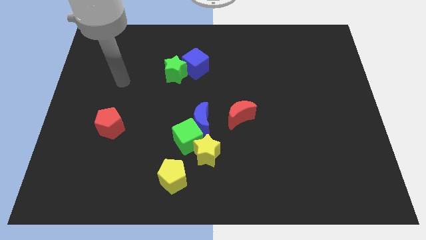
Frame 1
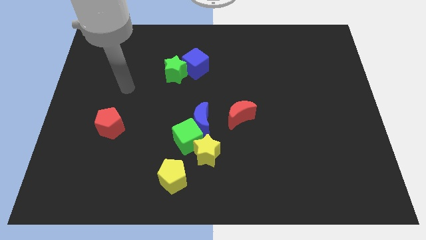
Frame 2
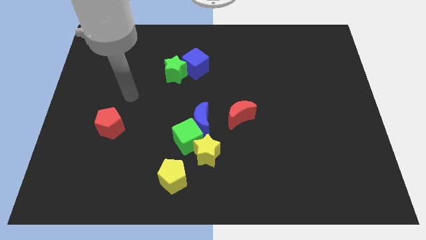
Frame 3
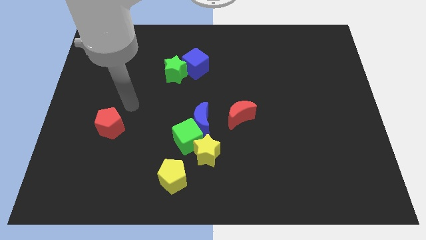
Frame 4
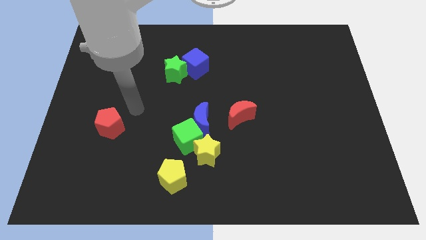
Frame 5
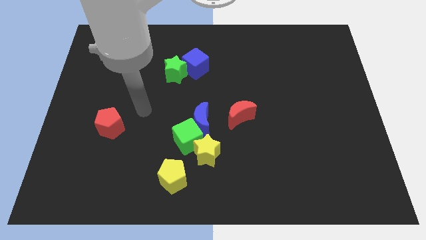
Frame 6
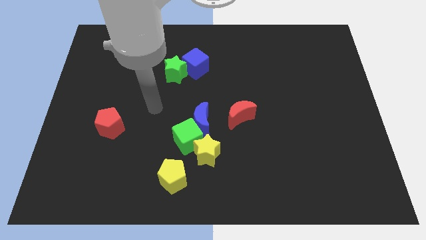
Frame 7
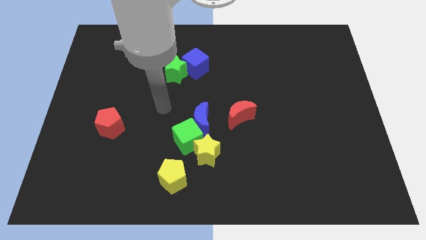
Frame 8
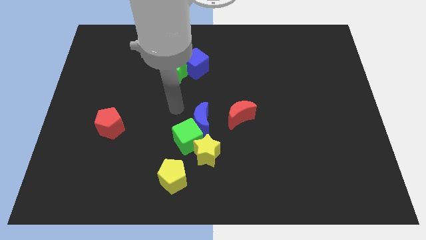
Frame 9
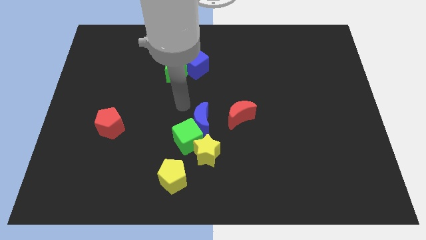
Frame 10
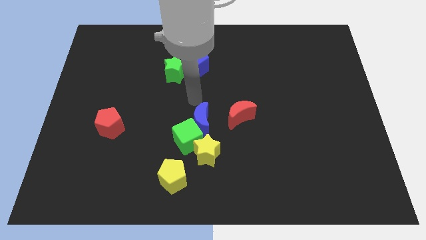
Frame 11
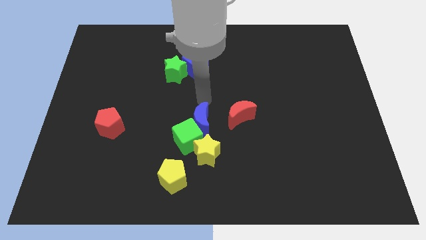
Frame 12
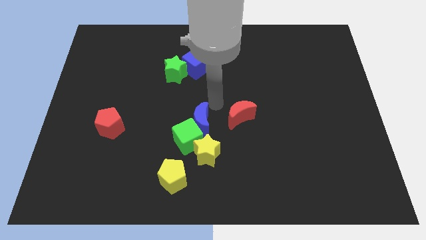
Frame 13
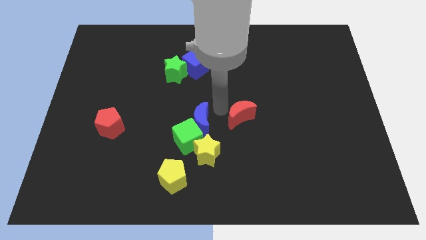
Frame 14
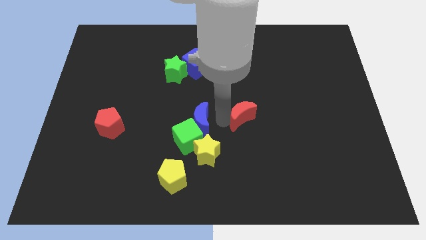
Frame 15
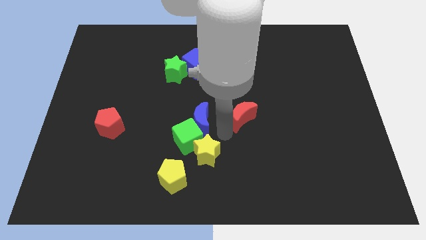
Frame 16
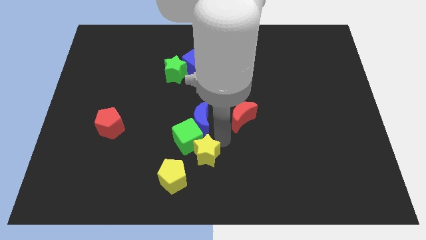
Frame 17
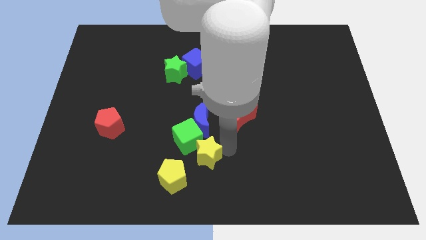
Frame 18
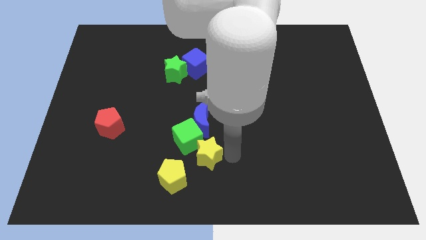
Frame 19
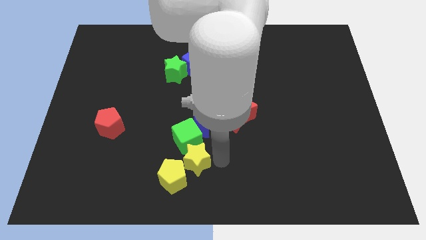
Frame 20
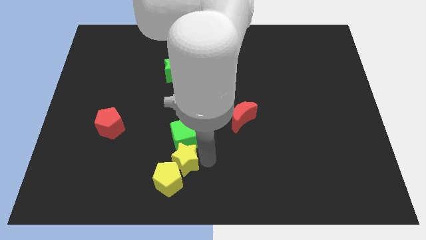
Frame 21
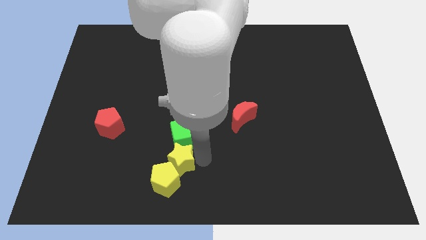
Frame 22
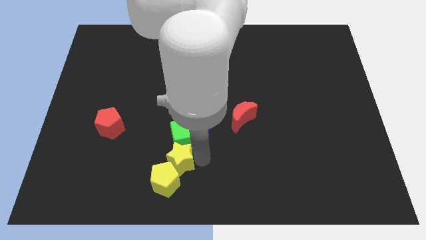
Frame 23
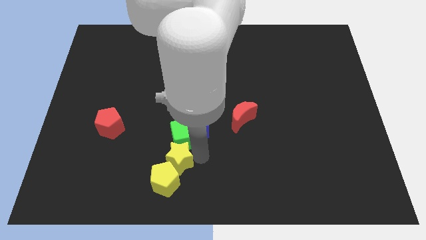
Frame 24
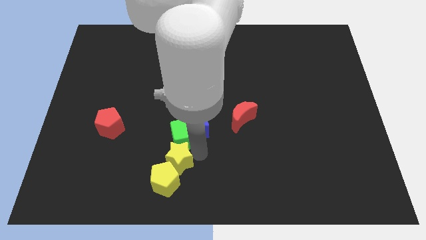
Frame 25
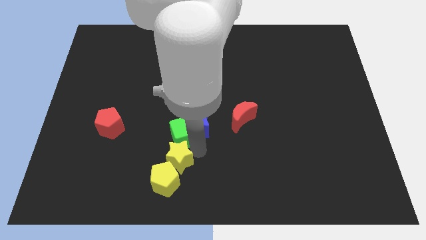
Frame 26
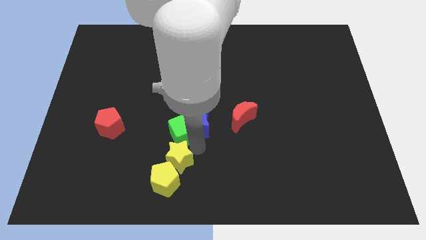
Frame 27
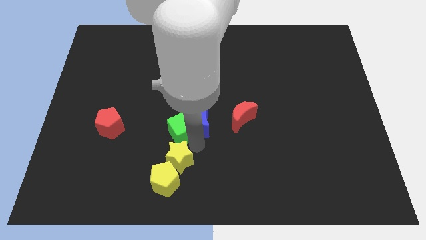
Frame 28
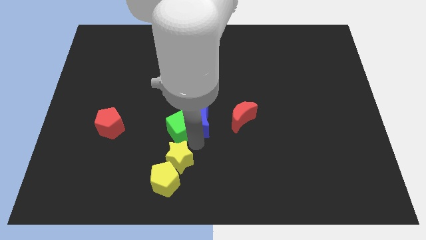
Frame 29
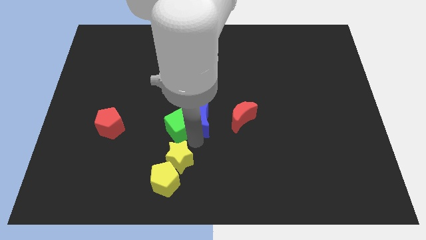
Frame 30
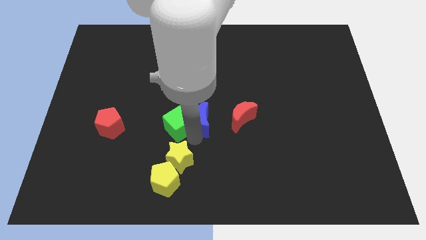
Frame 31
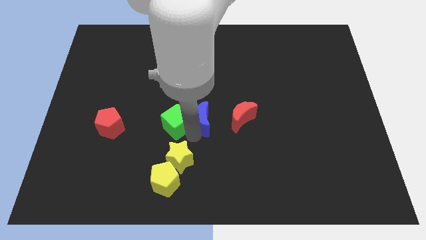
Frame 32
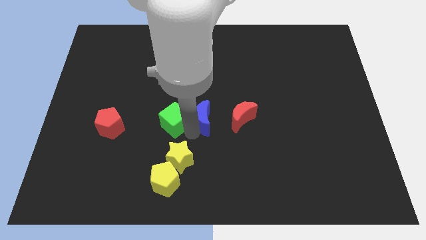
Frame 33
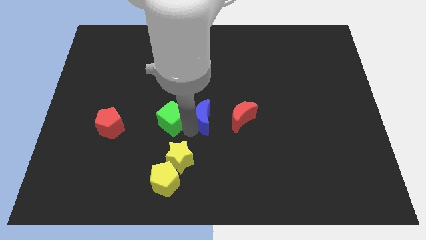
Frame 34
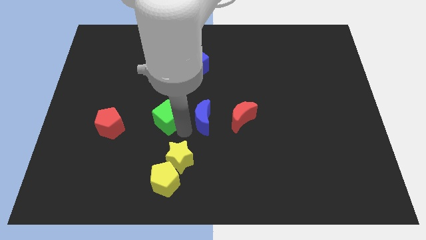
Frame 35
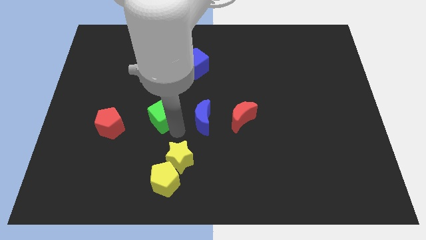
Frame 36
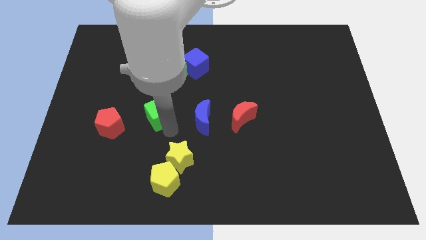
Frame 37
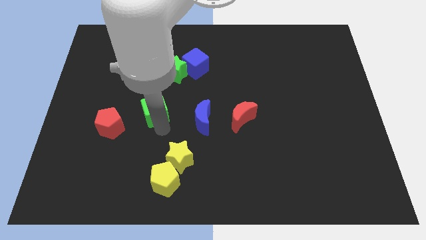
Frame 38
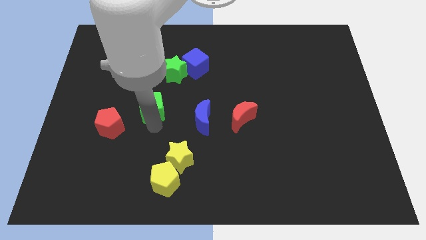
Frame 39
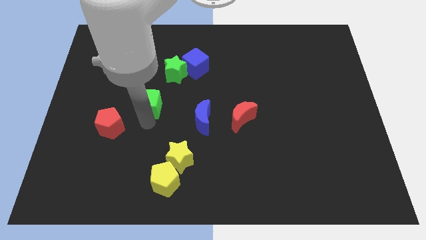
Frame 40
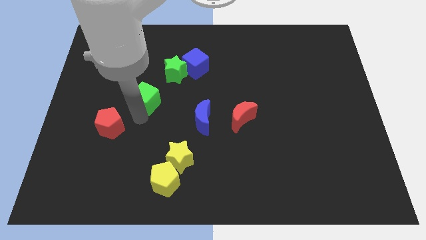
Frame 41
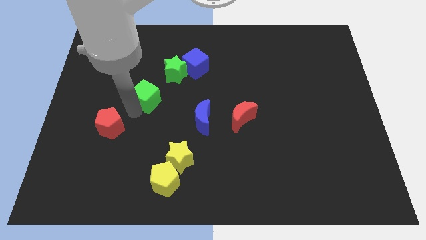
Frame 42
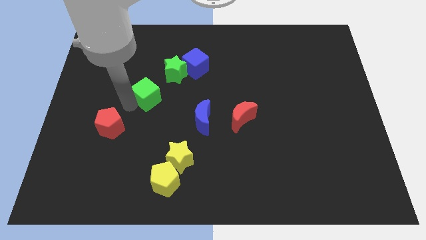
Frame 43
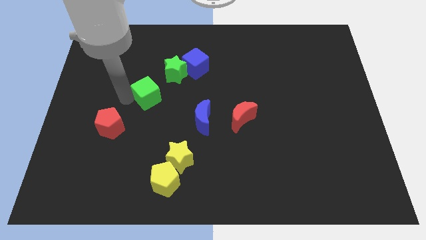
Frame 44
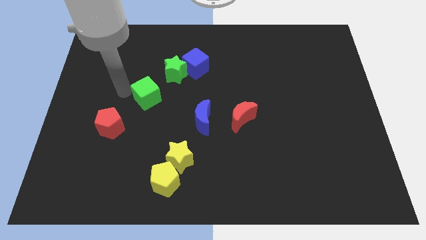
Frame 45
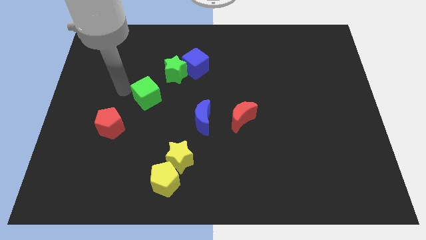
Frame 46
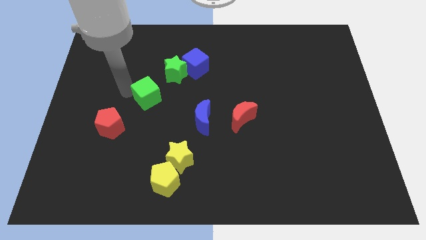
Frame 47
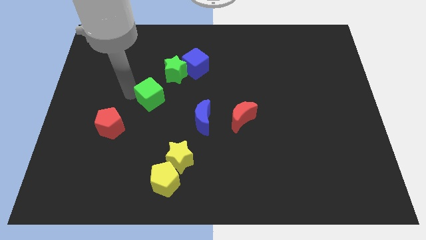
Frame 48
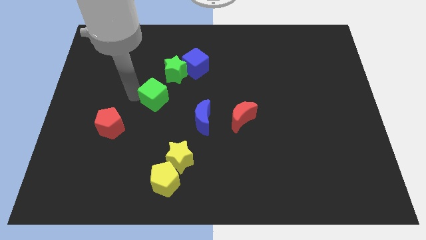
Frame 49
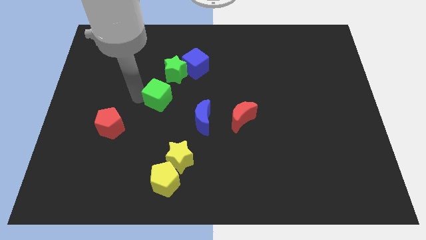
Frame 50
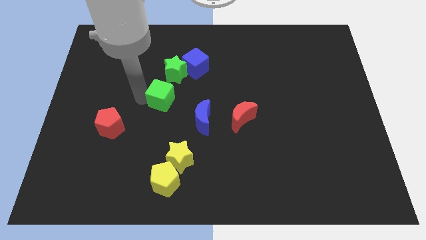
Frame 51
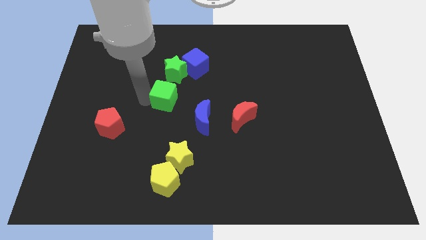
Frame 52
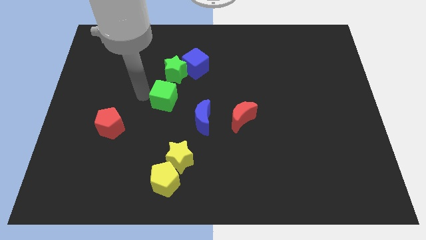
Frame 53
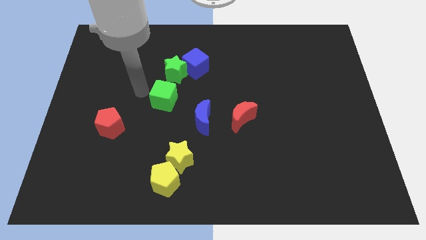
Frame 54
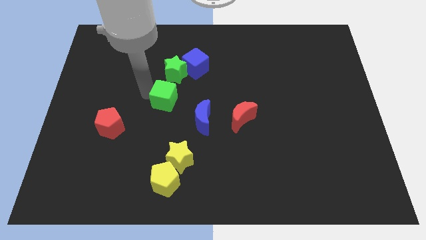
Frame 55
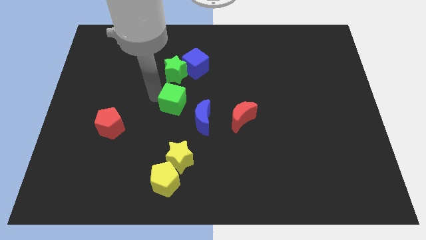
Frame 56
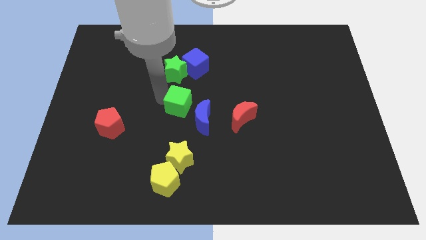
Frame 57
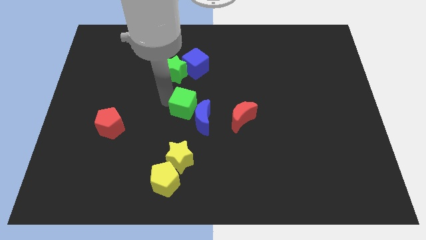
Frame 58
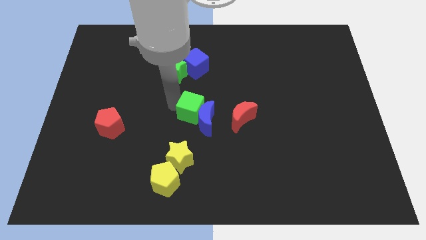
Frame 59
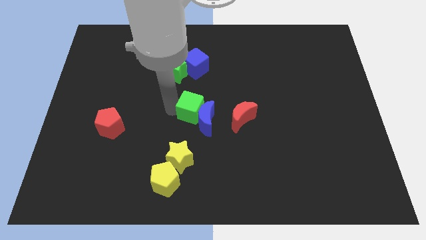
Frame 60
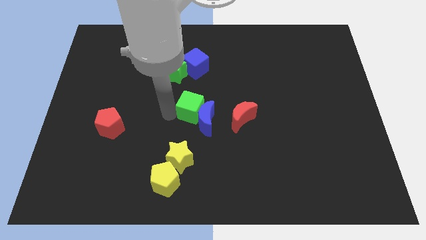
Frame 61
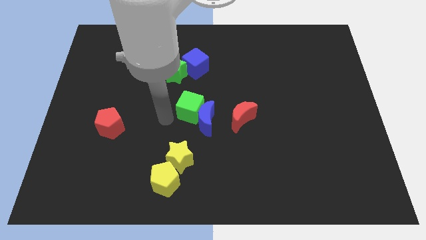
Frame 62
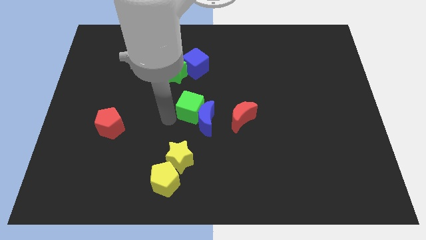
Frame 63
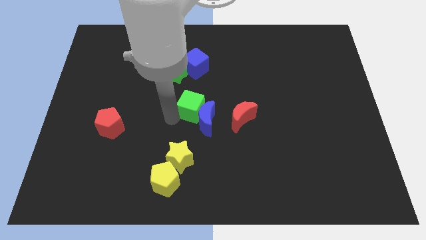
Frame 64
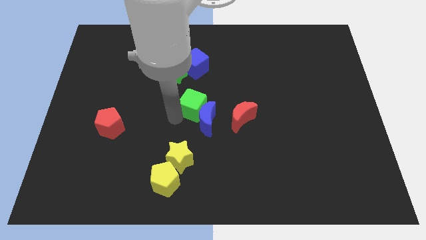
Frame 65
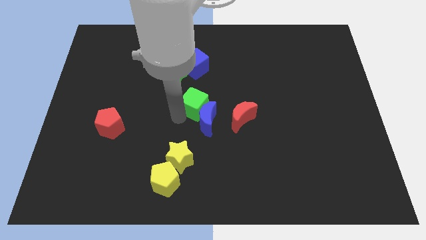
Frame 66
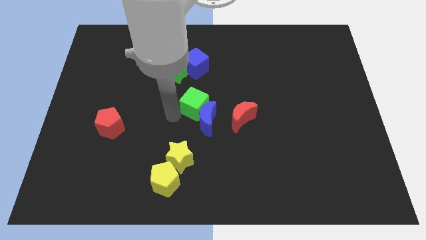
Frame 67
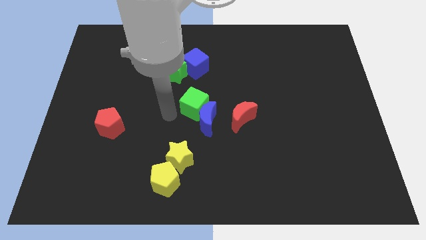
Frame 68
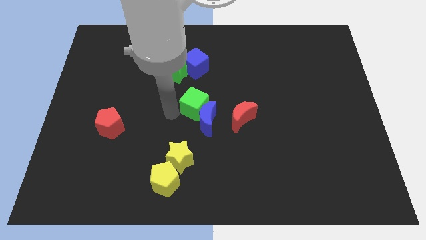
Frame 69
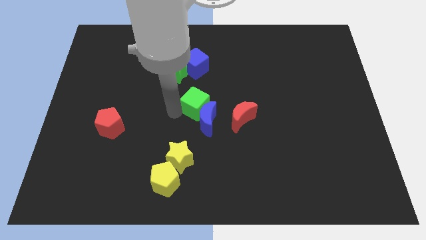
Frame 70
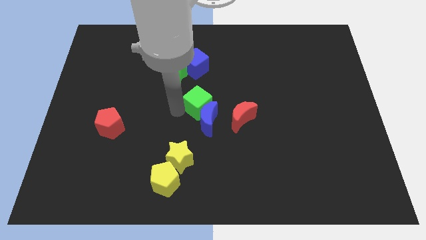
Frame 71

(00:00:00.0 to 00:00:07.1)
put the green cube to the top left side of the red moon
